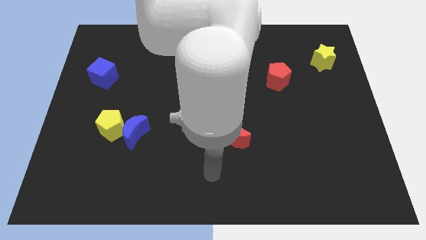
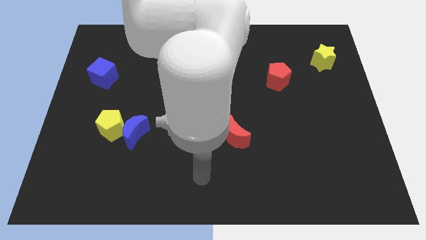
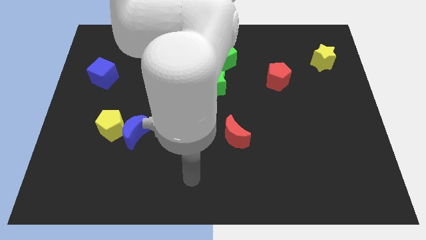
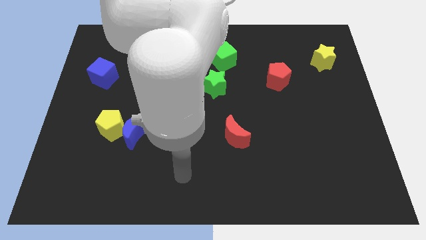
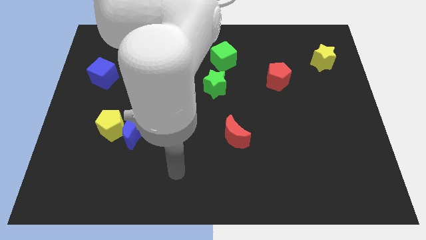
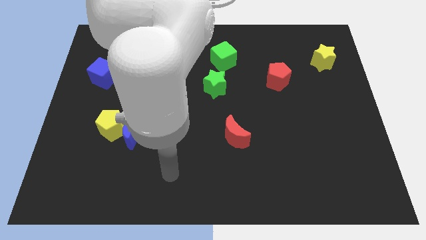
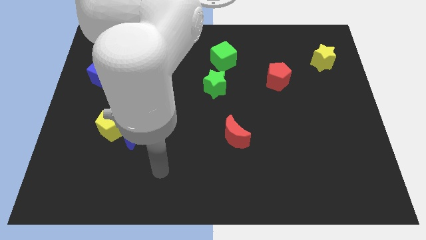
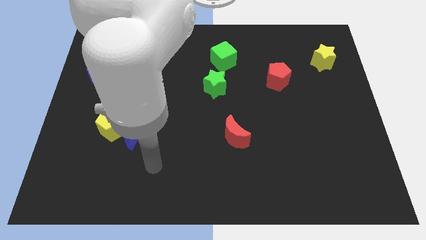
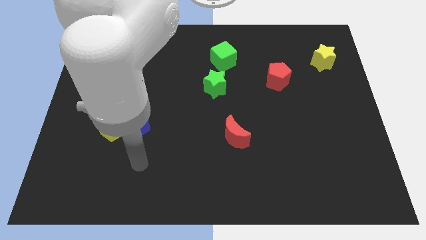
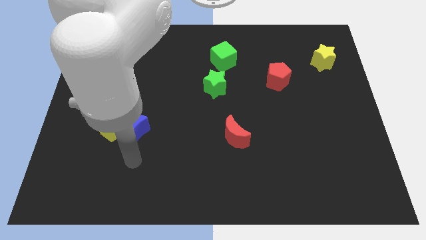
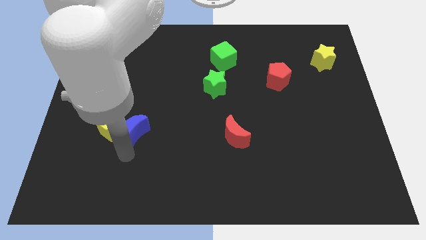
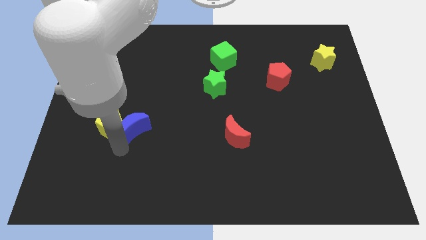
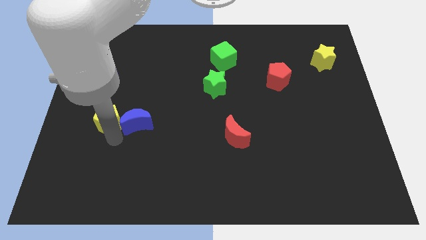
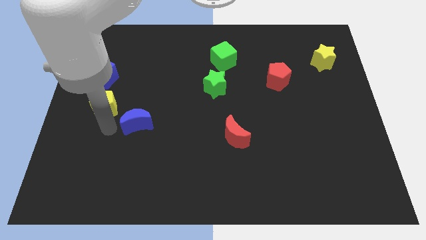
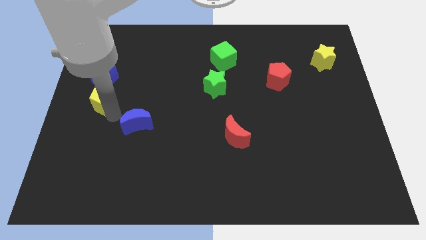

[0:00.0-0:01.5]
pull the blue moon apart from the yellow pentagon

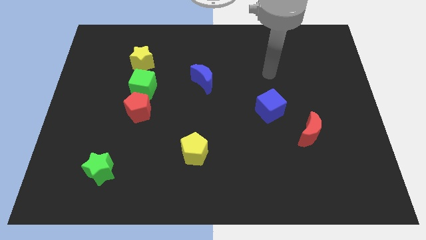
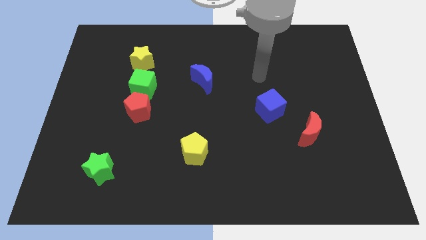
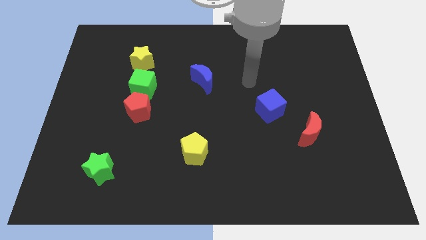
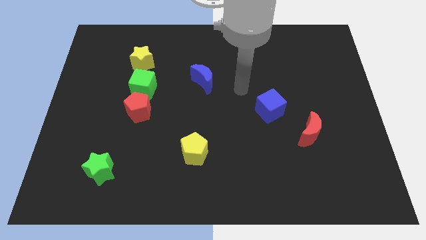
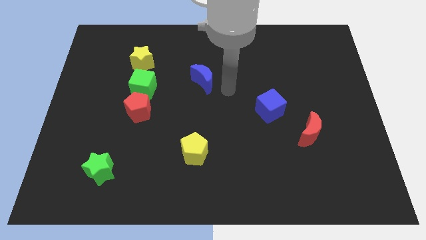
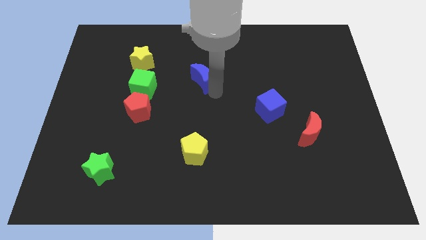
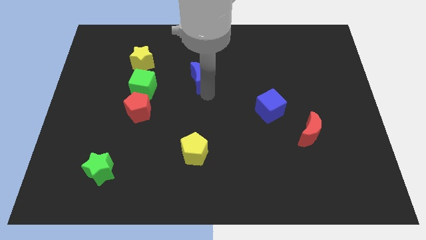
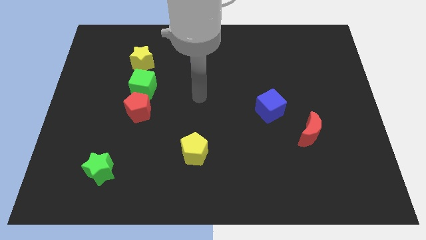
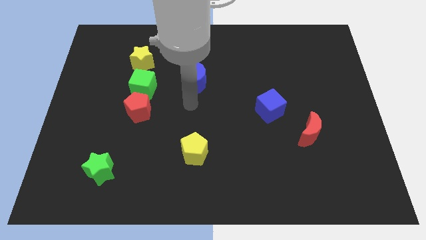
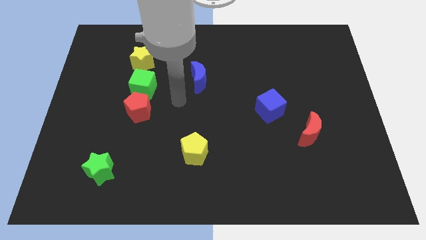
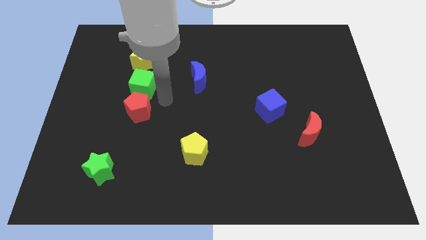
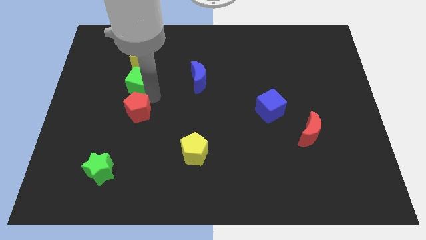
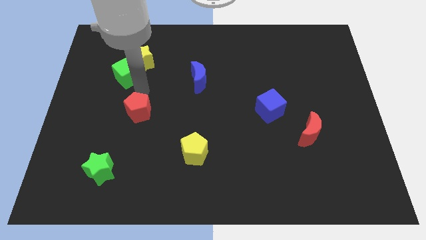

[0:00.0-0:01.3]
pull the red pentagon apart from the green cube

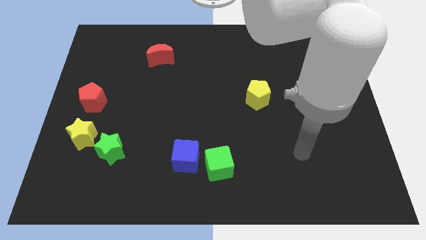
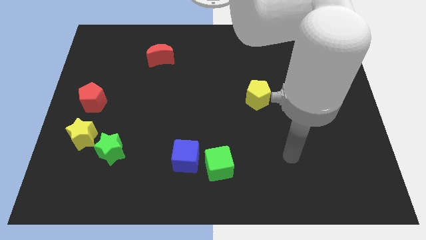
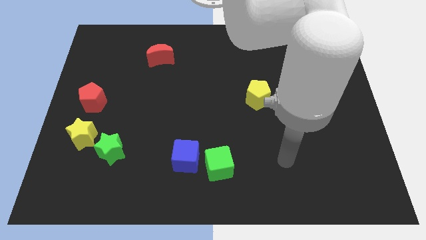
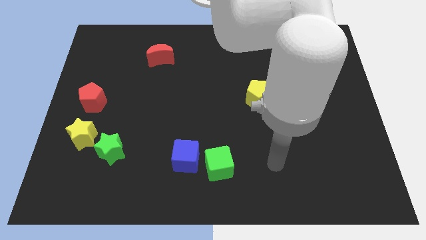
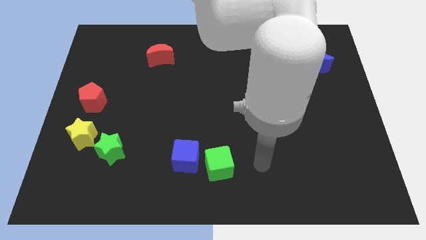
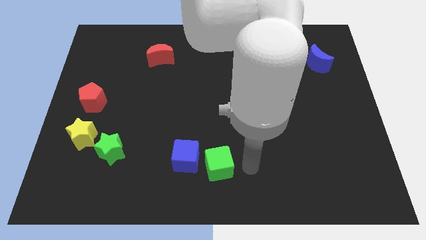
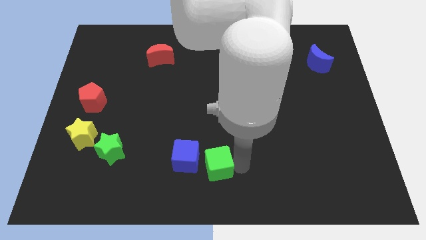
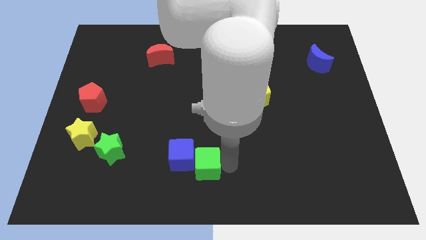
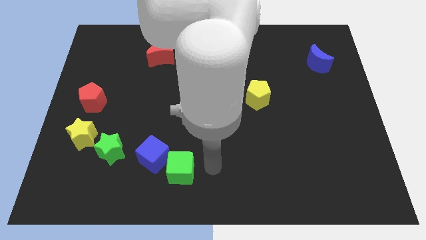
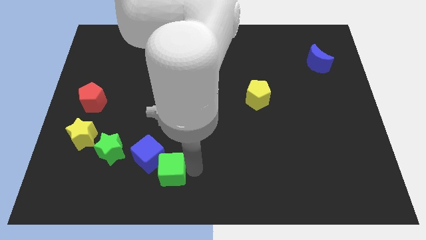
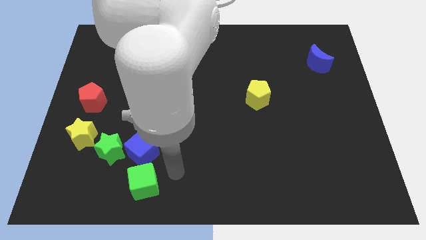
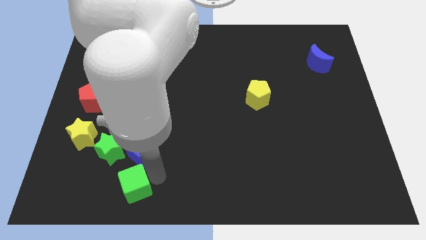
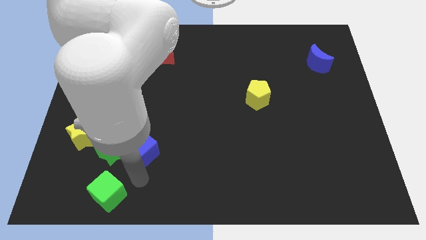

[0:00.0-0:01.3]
move the blue cube away from the green cube

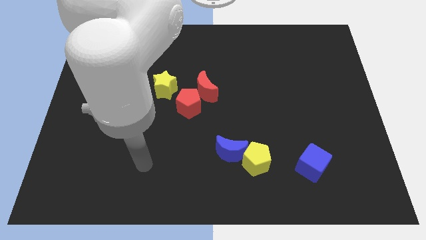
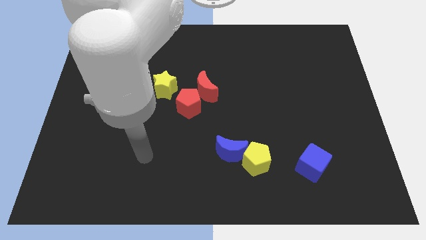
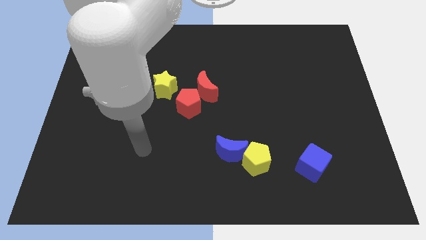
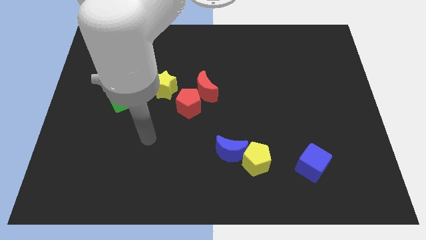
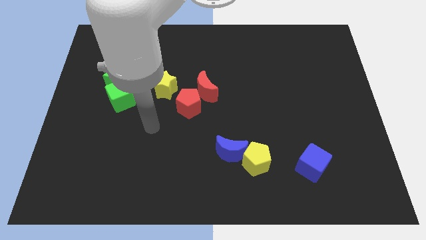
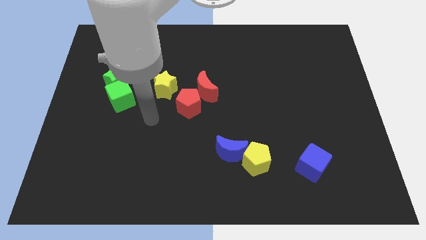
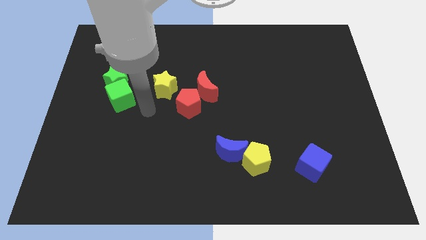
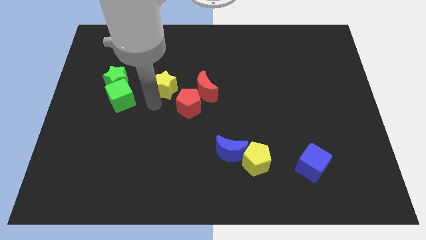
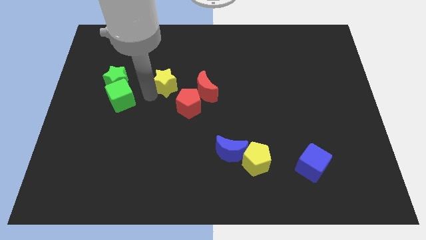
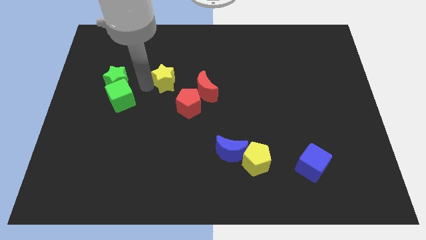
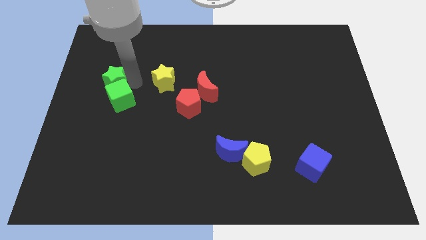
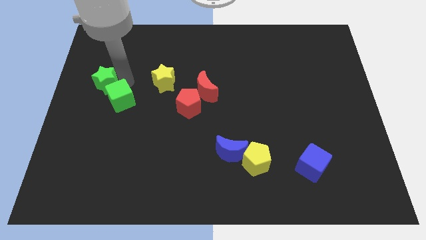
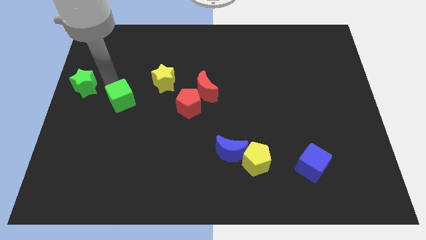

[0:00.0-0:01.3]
move the green cube away from the green star

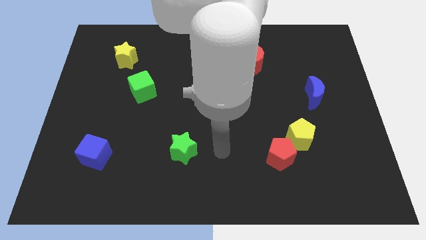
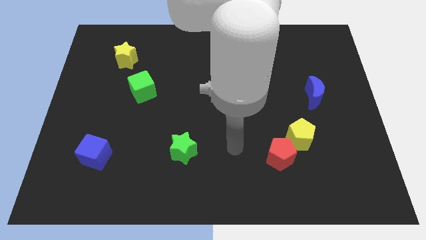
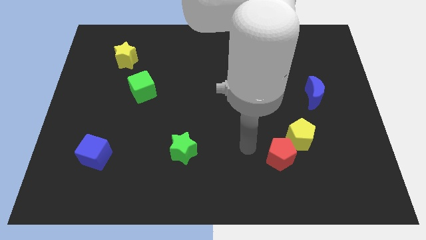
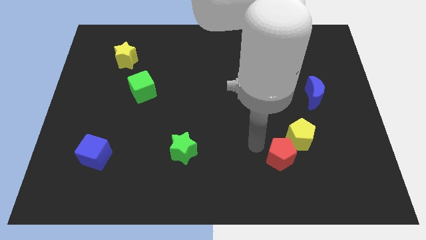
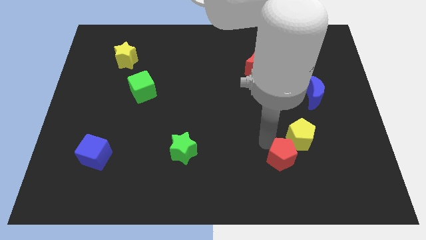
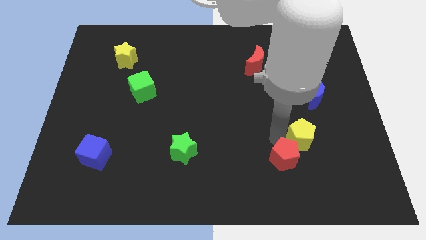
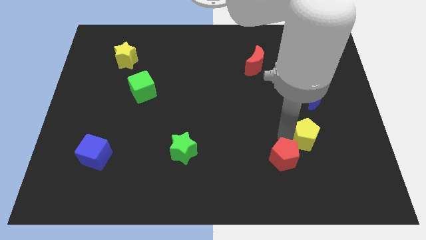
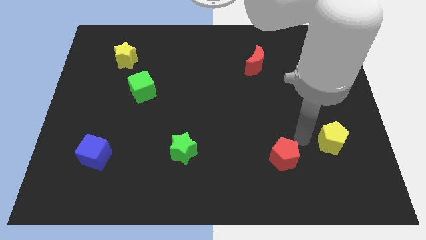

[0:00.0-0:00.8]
move the red pentagon away from the yellow pentagon

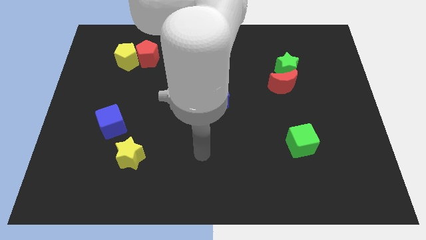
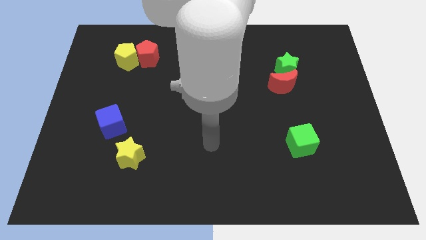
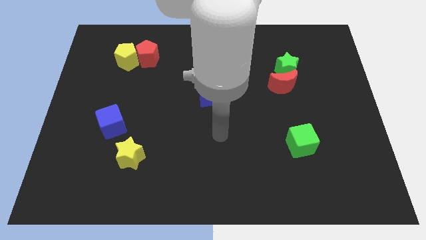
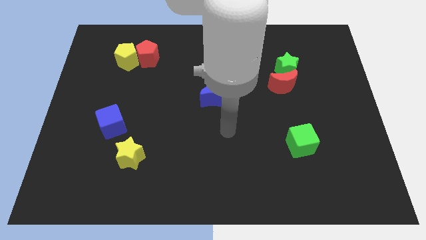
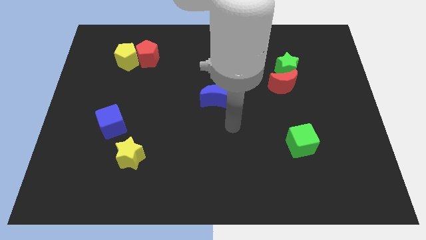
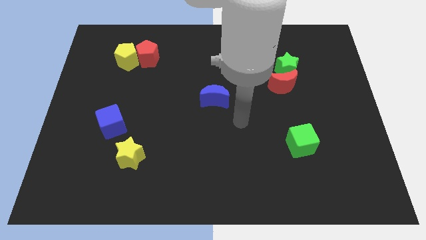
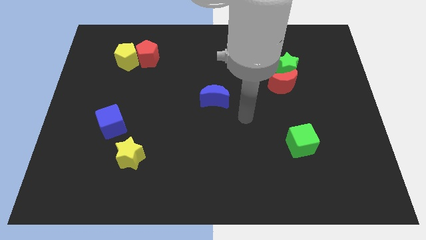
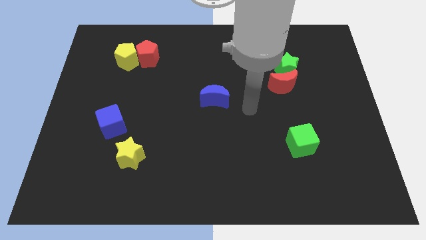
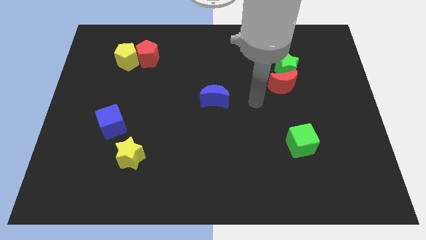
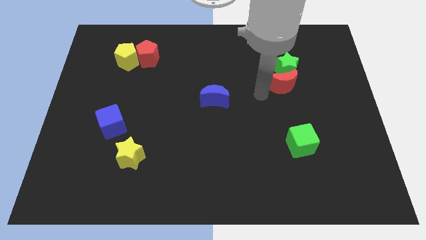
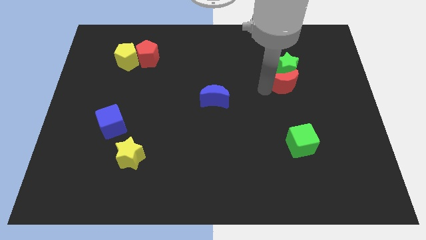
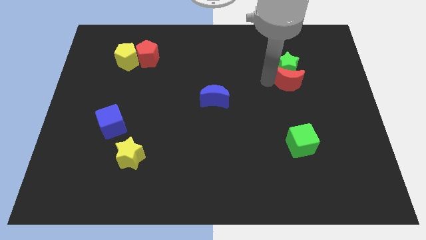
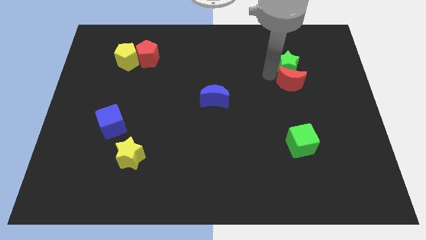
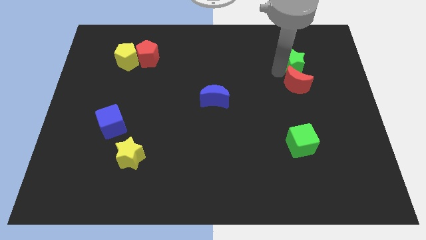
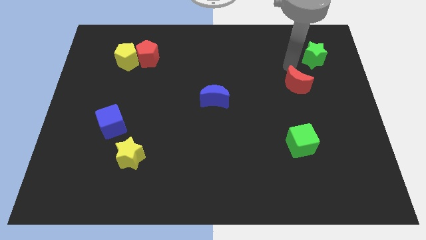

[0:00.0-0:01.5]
move the red moon away from the green star

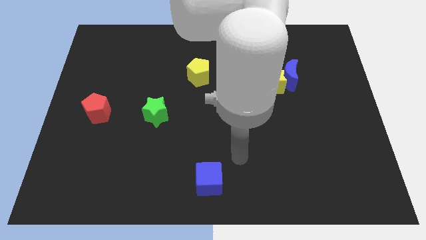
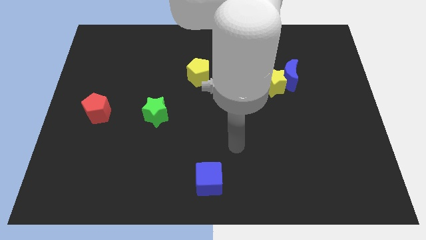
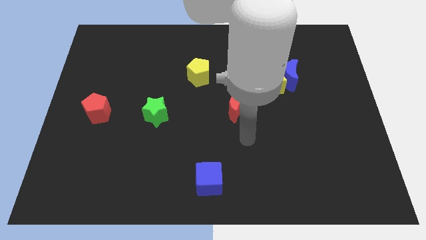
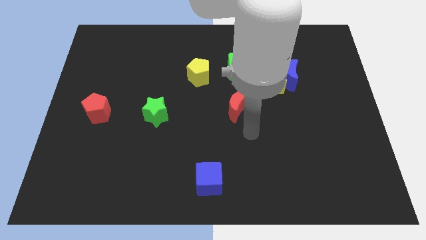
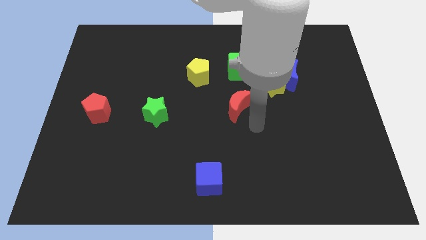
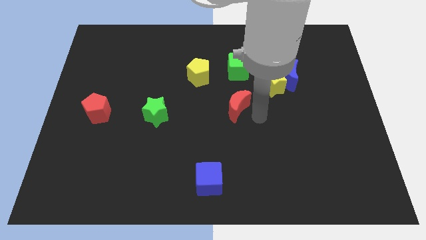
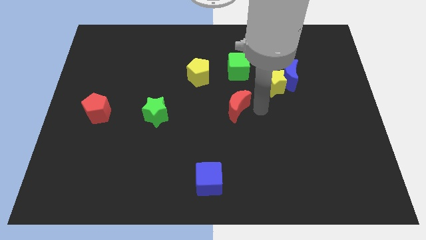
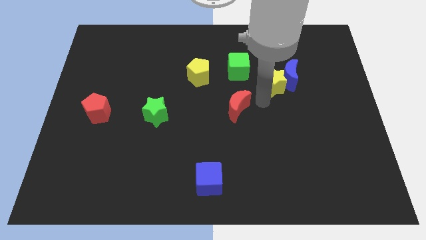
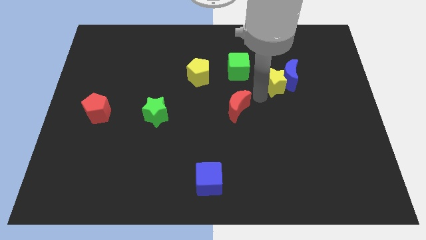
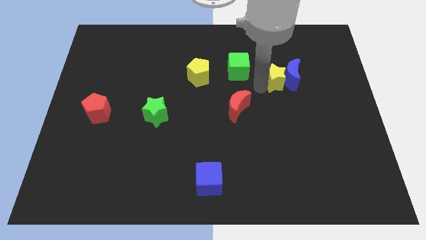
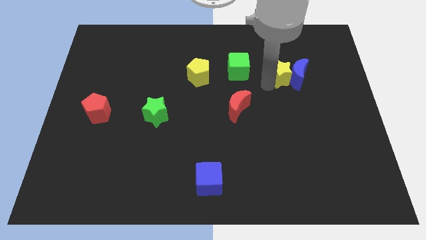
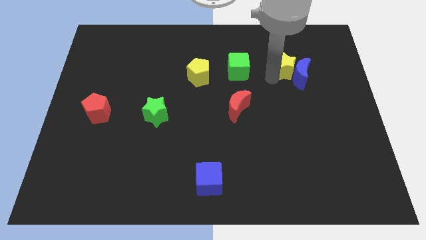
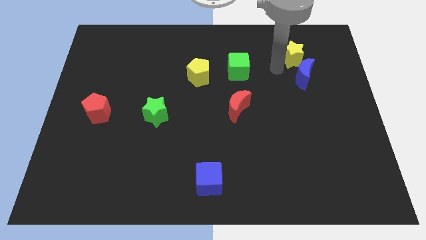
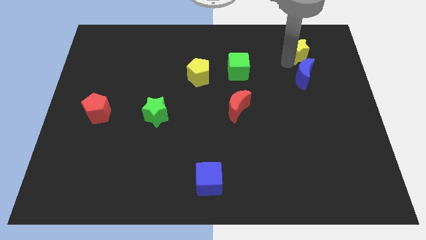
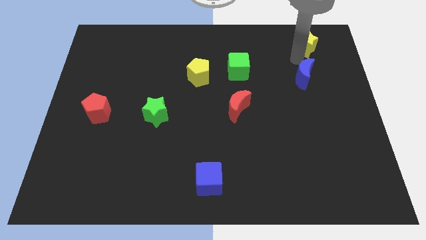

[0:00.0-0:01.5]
separate the blue moon from the yellow star
